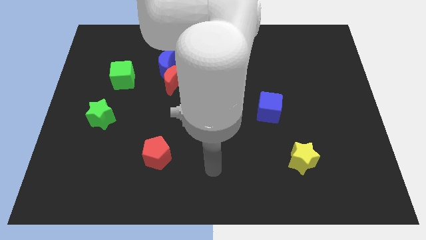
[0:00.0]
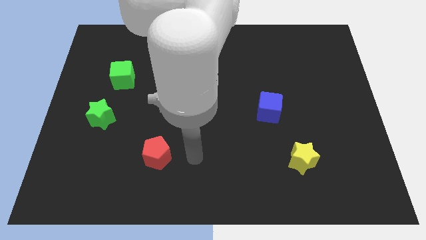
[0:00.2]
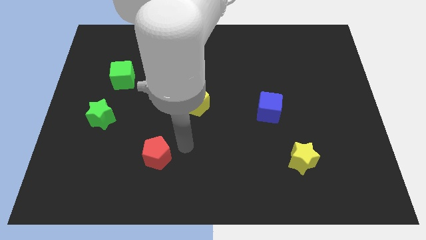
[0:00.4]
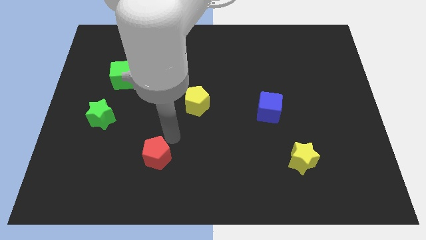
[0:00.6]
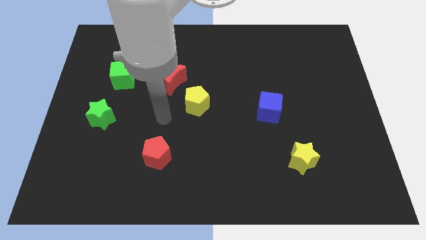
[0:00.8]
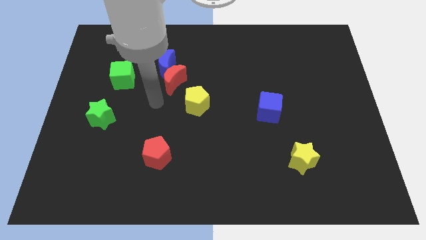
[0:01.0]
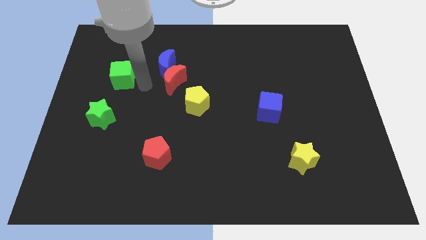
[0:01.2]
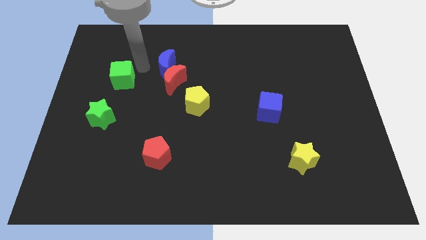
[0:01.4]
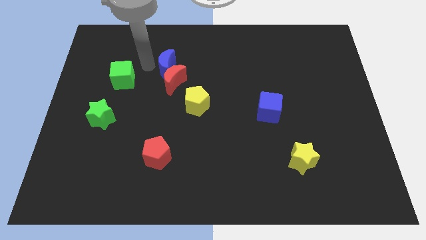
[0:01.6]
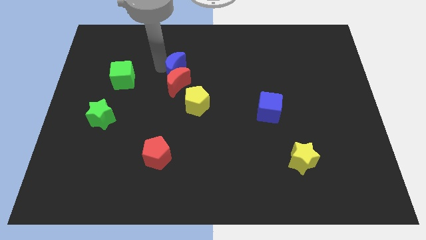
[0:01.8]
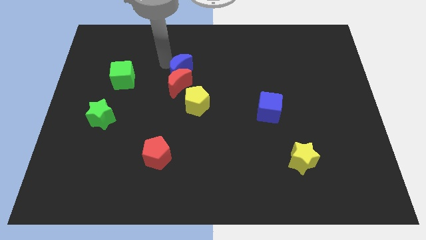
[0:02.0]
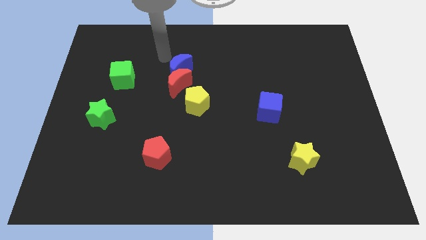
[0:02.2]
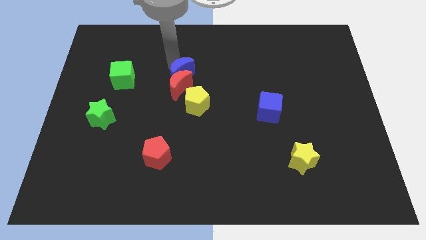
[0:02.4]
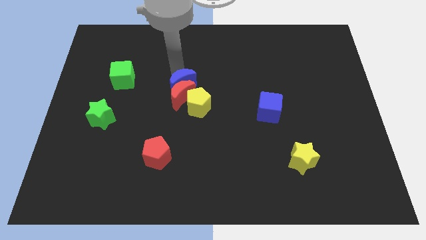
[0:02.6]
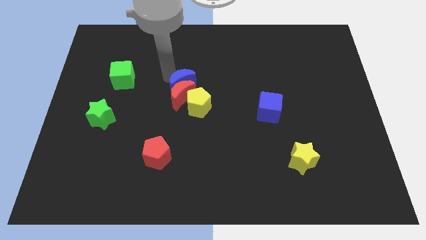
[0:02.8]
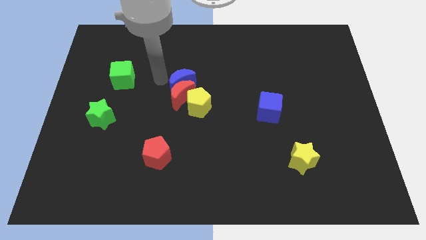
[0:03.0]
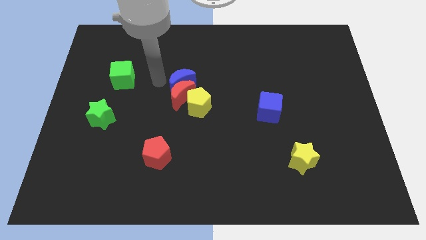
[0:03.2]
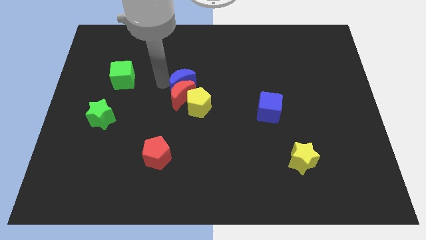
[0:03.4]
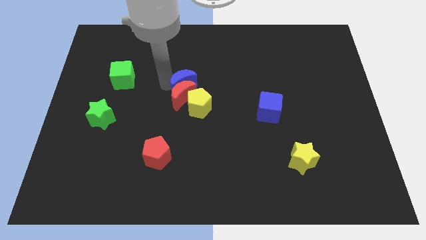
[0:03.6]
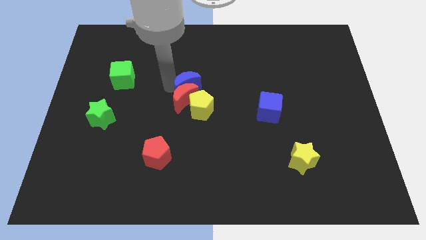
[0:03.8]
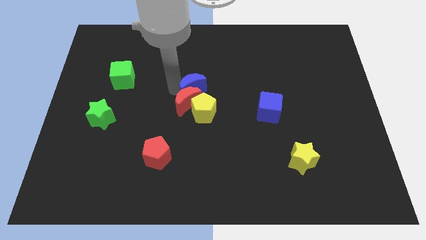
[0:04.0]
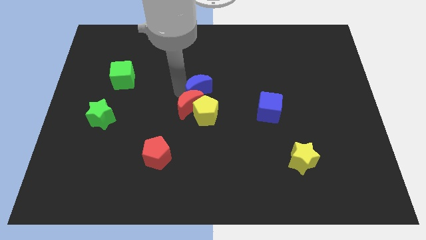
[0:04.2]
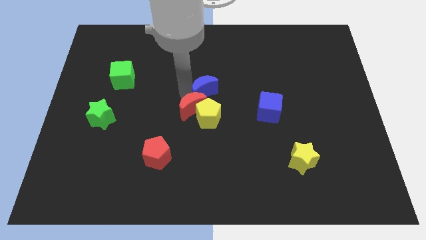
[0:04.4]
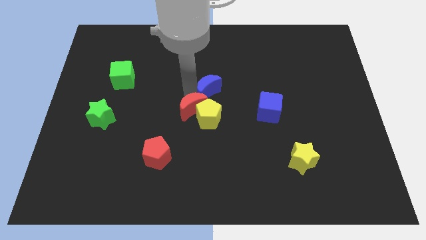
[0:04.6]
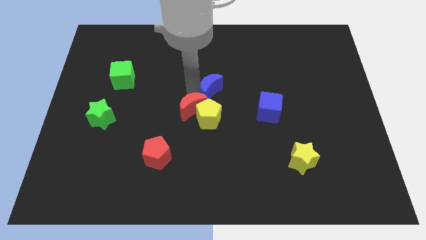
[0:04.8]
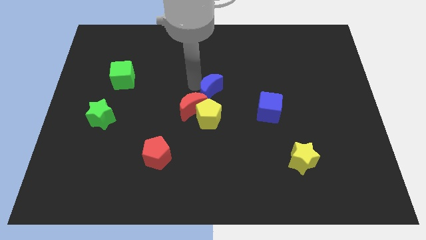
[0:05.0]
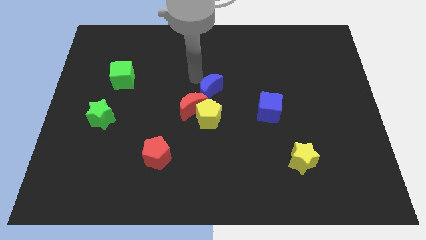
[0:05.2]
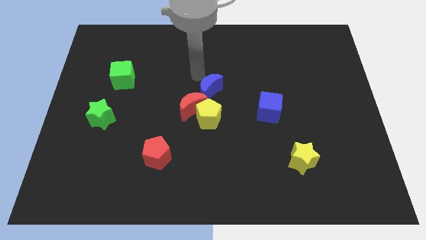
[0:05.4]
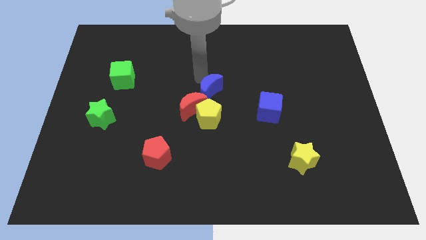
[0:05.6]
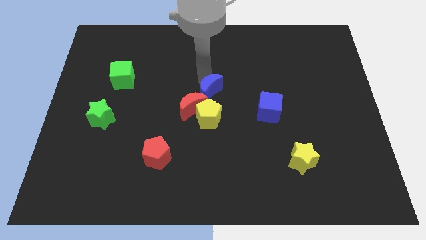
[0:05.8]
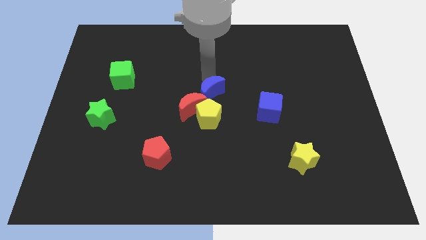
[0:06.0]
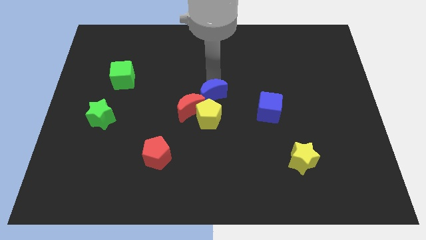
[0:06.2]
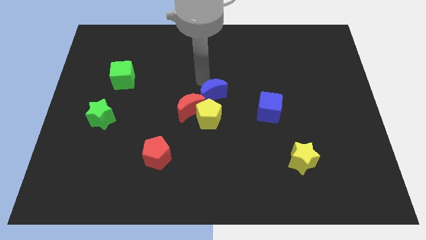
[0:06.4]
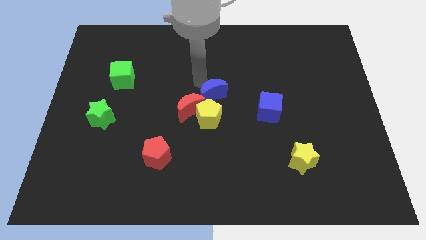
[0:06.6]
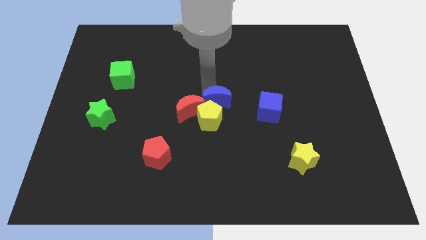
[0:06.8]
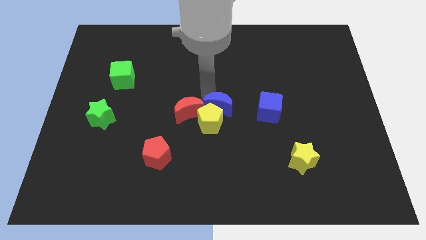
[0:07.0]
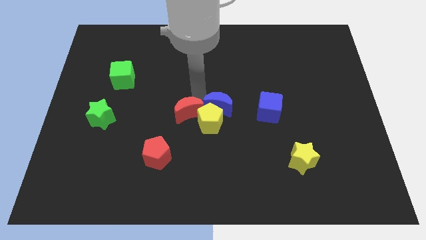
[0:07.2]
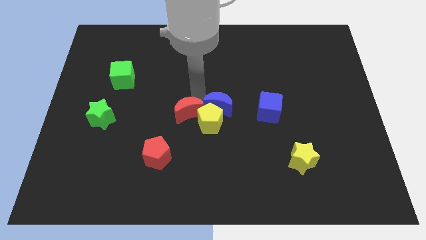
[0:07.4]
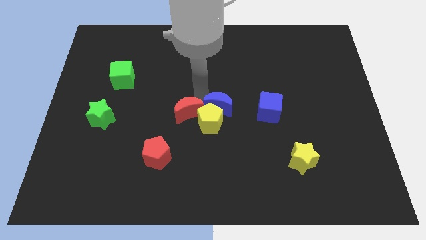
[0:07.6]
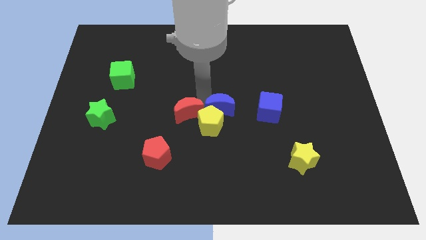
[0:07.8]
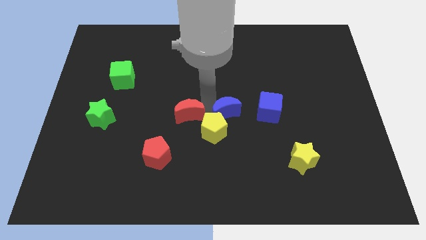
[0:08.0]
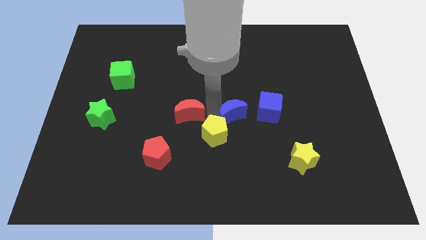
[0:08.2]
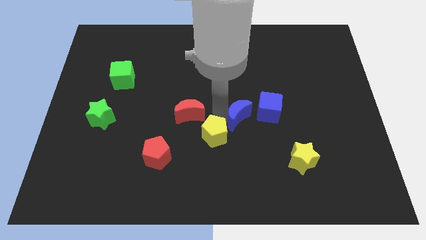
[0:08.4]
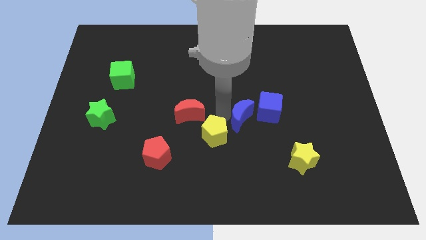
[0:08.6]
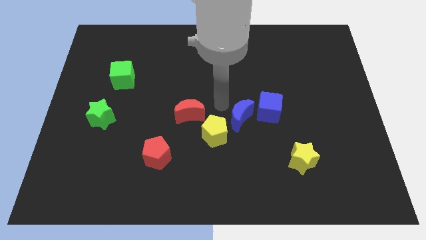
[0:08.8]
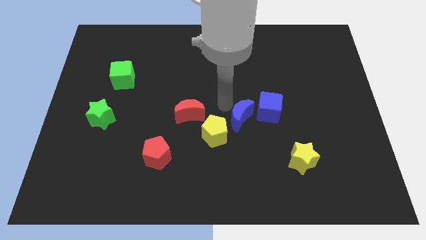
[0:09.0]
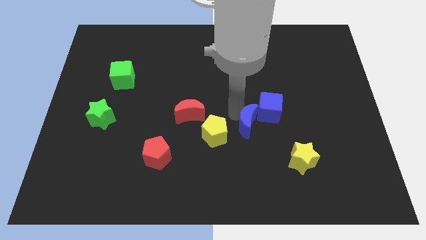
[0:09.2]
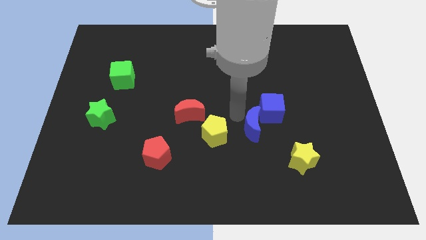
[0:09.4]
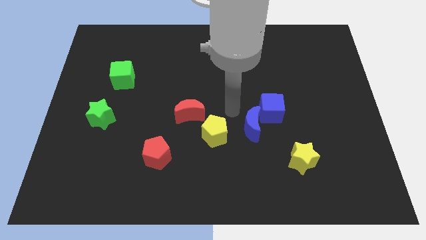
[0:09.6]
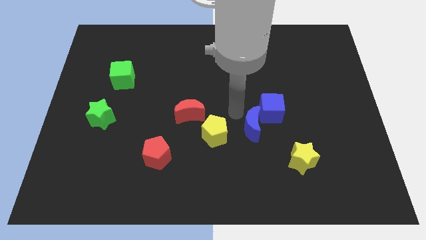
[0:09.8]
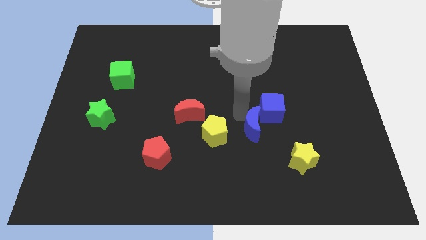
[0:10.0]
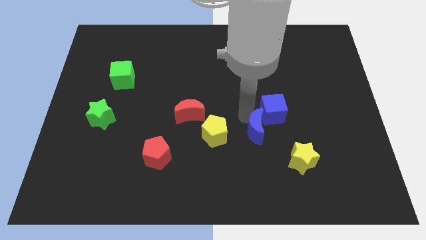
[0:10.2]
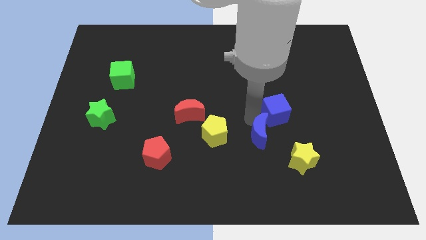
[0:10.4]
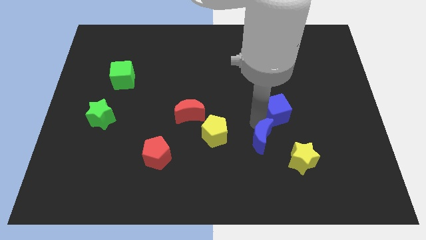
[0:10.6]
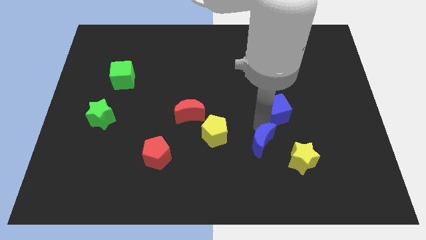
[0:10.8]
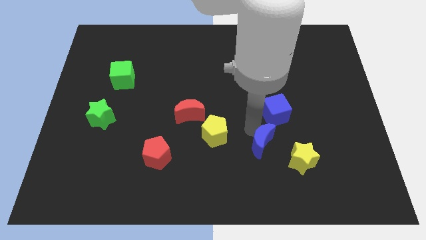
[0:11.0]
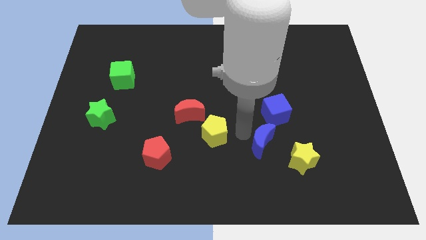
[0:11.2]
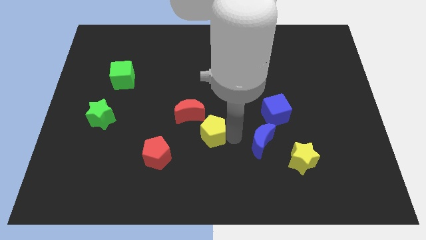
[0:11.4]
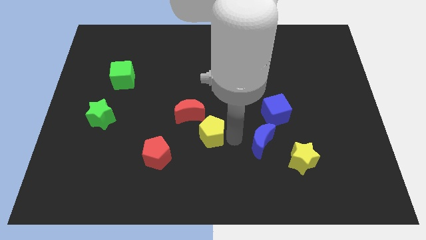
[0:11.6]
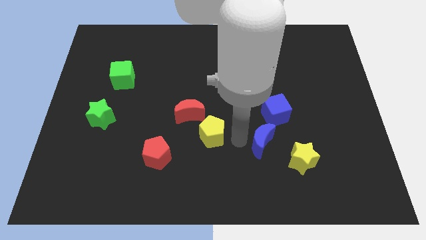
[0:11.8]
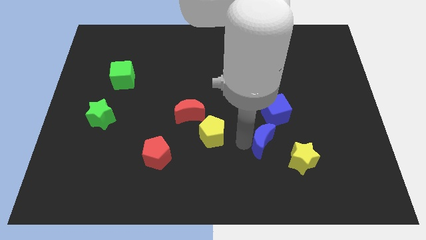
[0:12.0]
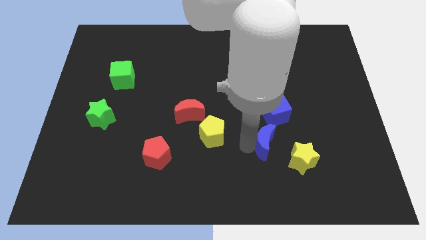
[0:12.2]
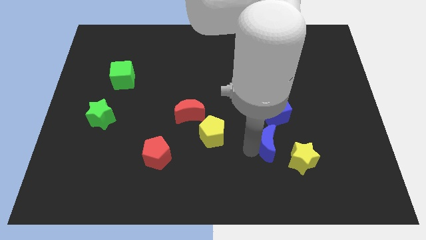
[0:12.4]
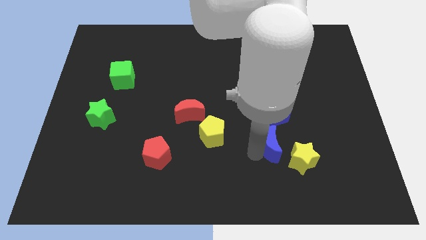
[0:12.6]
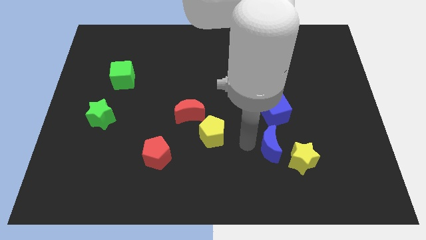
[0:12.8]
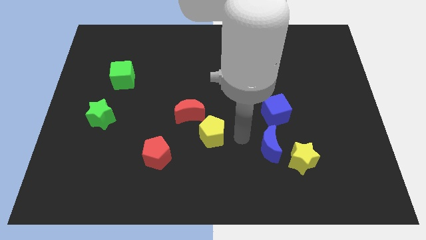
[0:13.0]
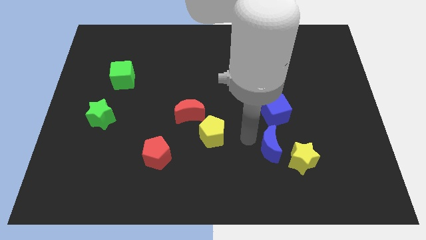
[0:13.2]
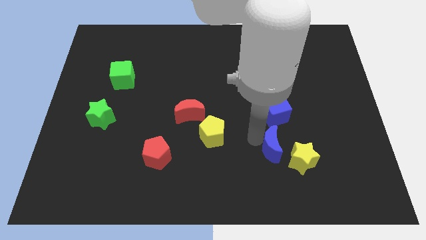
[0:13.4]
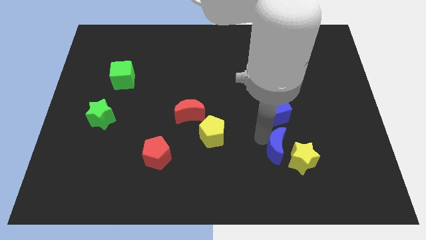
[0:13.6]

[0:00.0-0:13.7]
slide the blue moon towards the yellow star

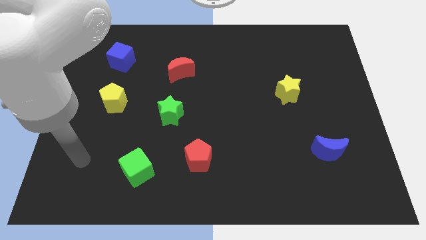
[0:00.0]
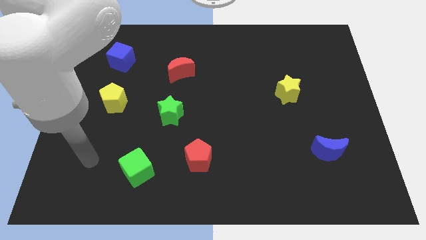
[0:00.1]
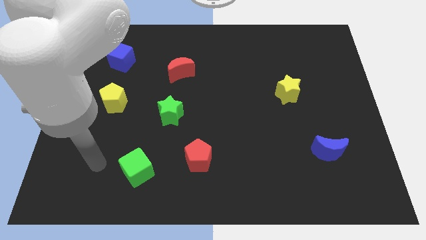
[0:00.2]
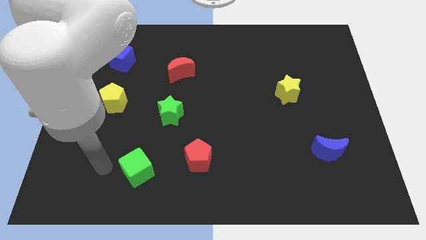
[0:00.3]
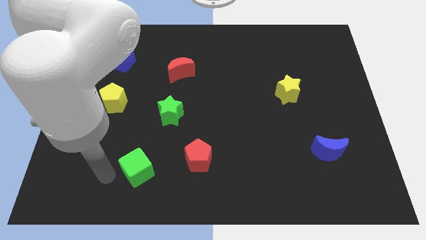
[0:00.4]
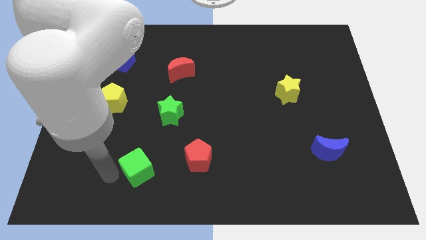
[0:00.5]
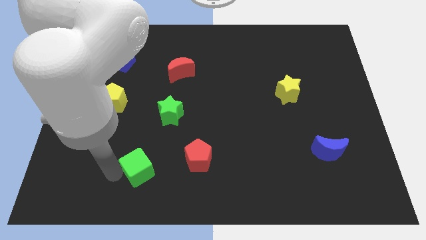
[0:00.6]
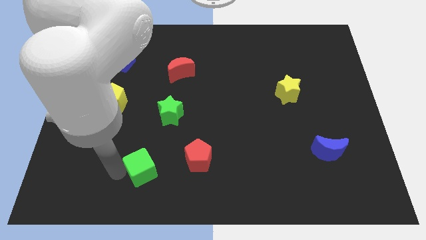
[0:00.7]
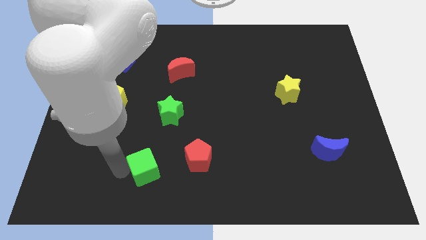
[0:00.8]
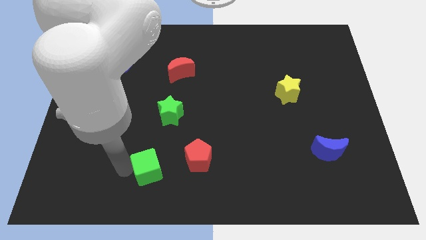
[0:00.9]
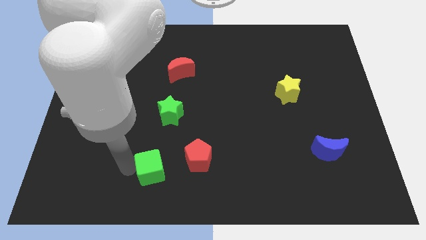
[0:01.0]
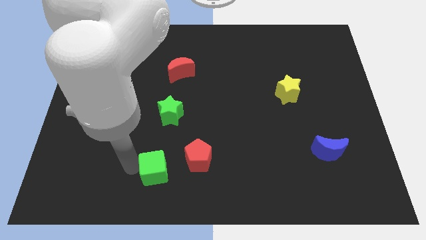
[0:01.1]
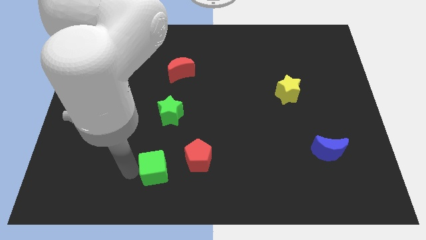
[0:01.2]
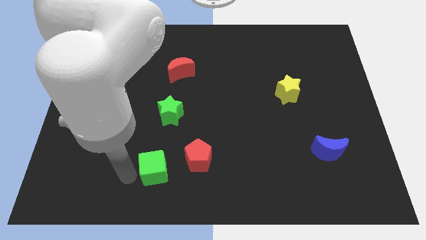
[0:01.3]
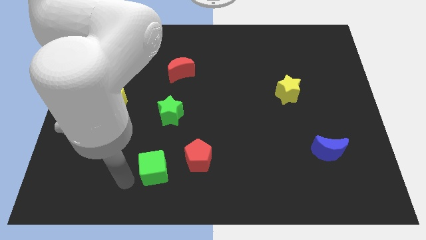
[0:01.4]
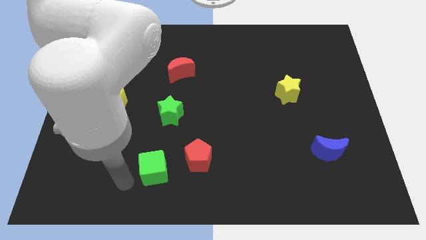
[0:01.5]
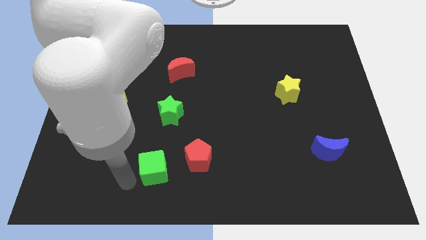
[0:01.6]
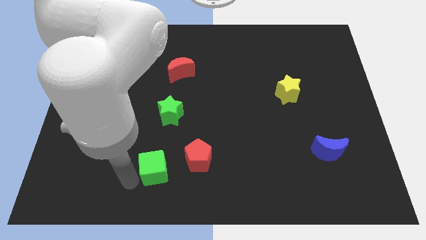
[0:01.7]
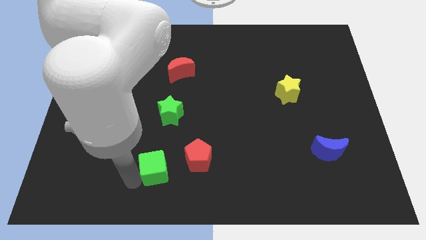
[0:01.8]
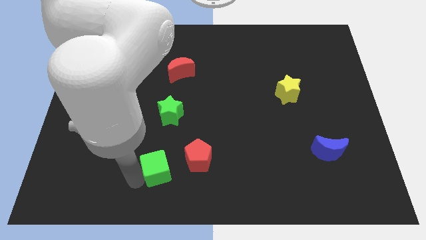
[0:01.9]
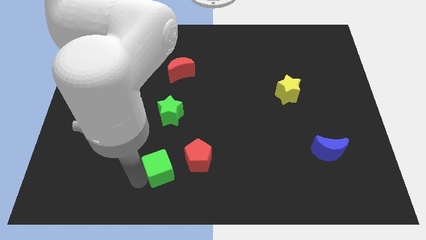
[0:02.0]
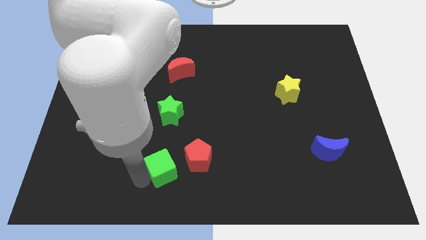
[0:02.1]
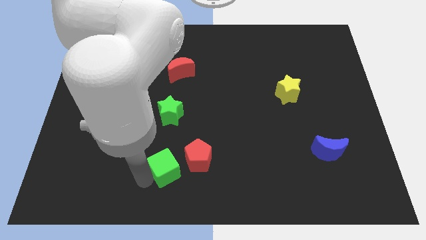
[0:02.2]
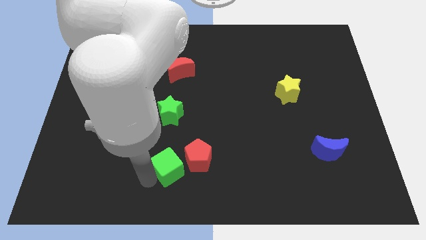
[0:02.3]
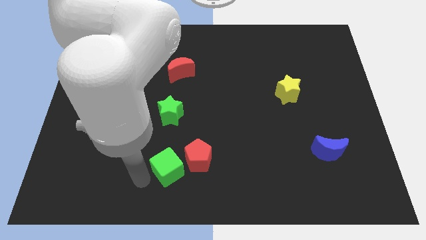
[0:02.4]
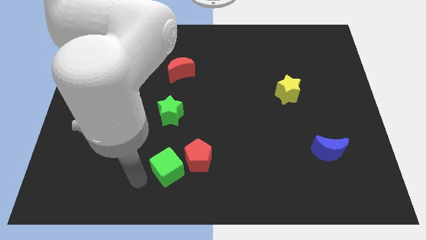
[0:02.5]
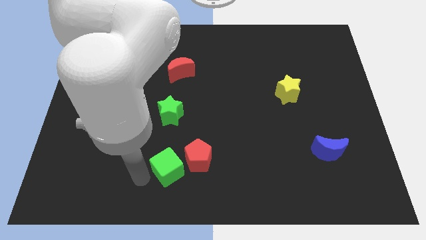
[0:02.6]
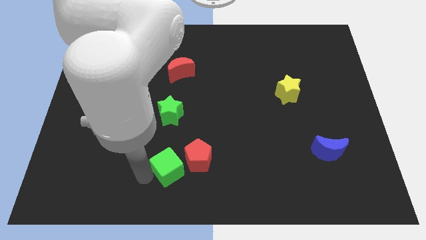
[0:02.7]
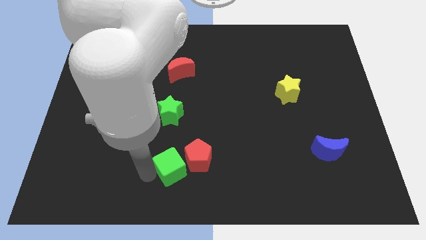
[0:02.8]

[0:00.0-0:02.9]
put the green cube towards the red pentagon
